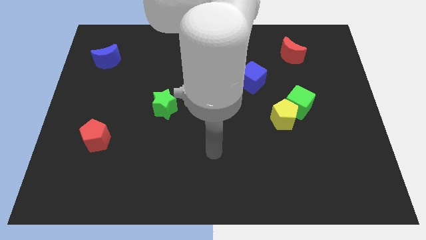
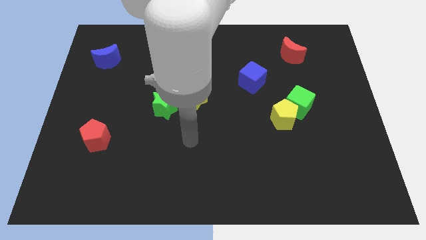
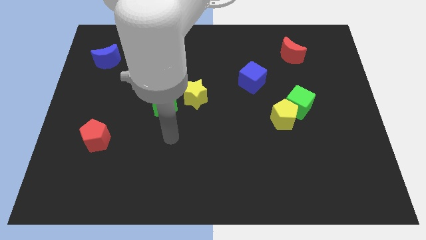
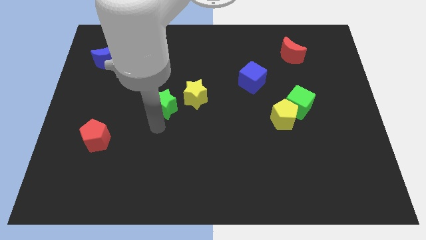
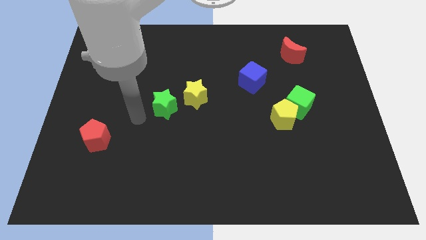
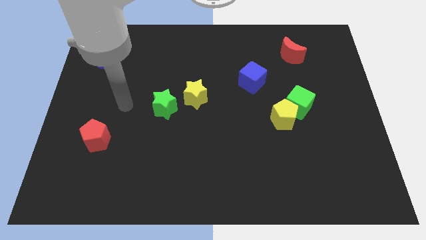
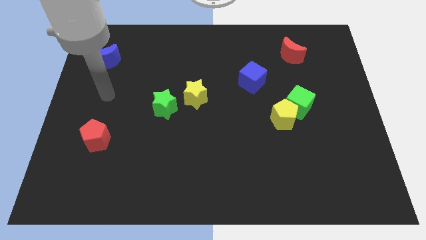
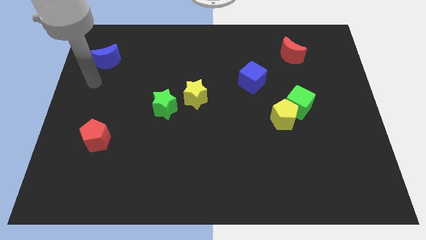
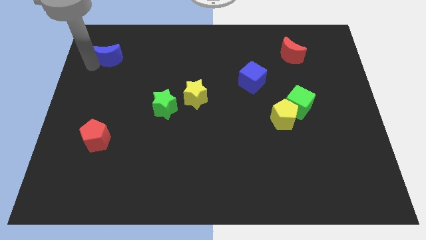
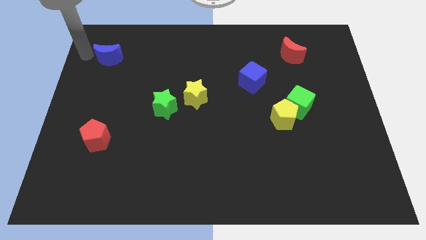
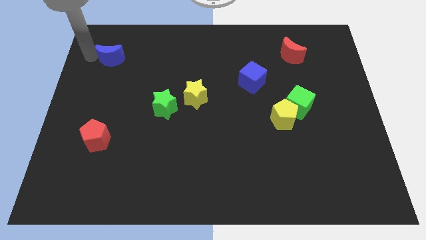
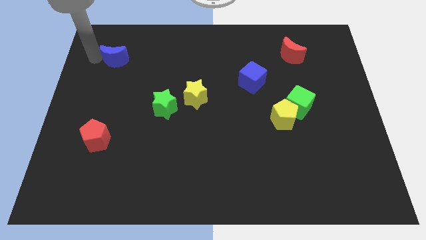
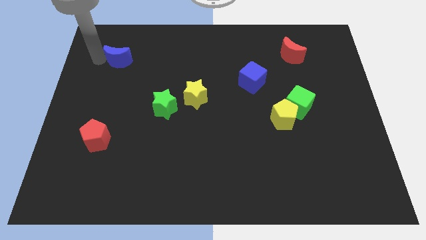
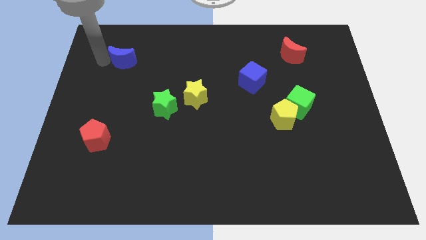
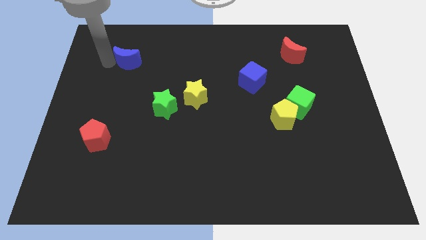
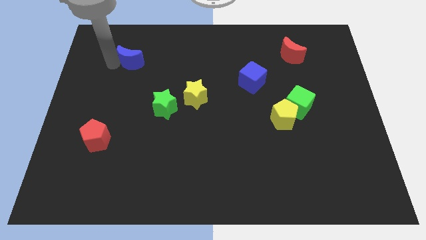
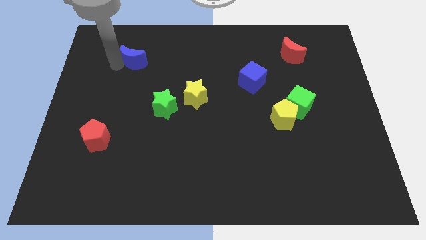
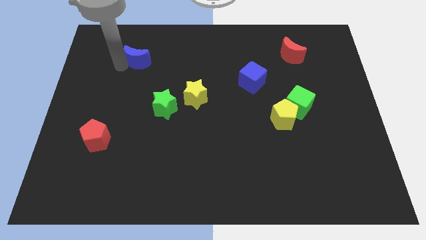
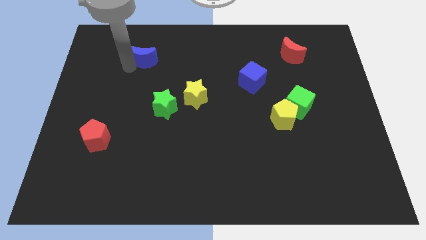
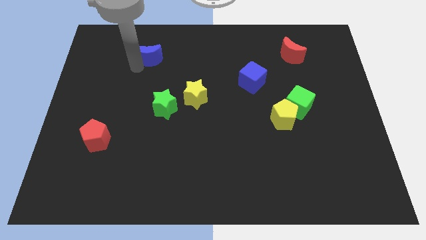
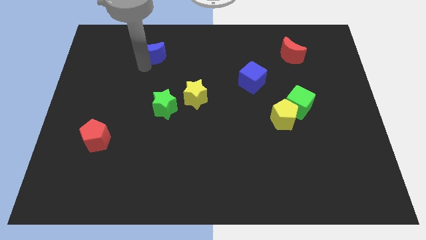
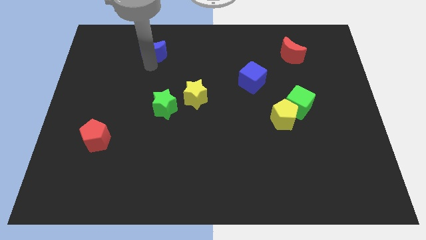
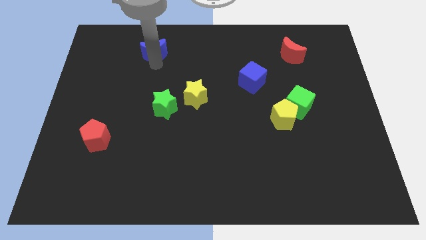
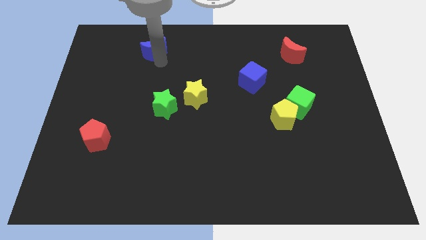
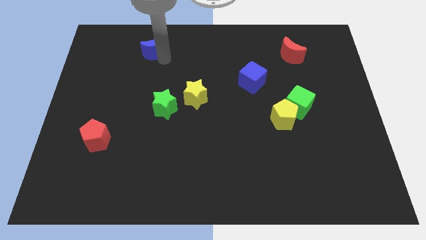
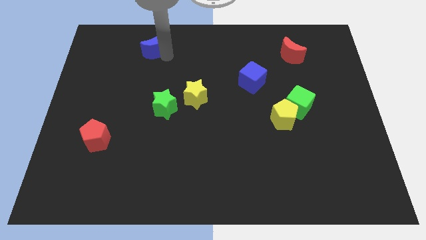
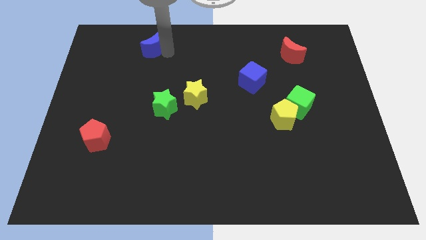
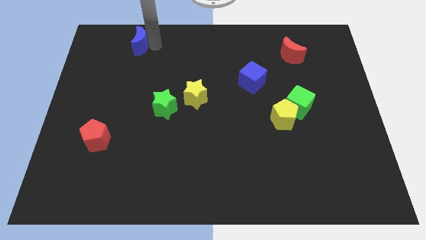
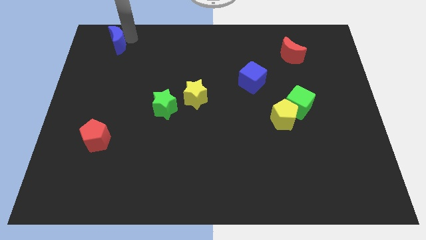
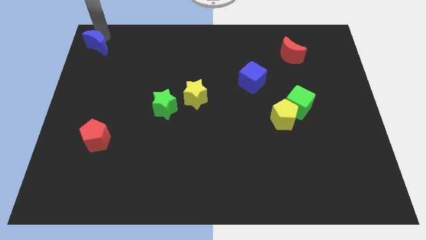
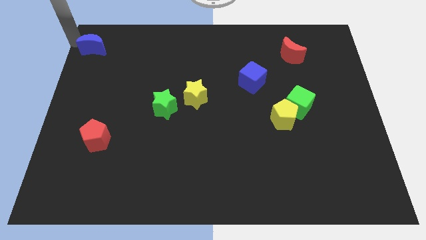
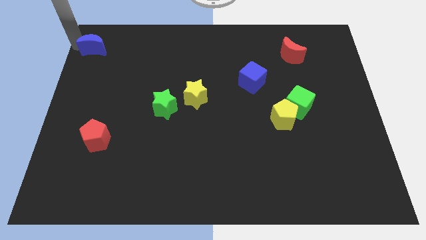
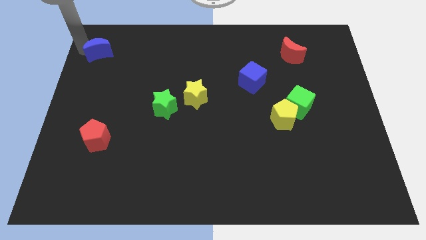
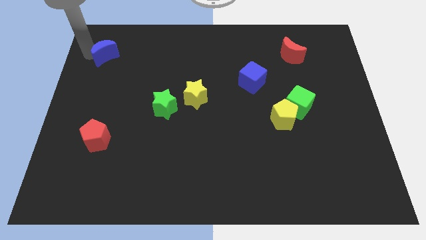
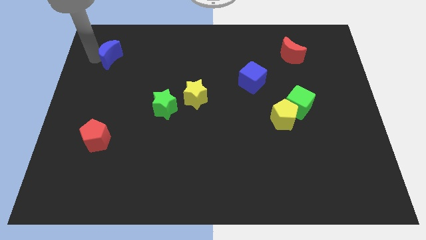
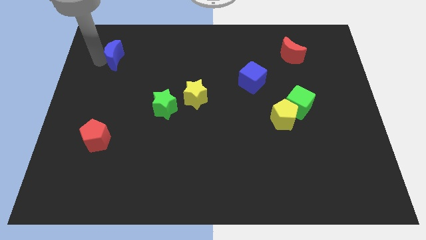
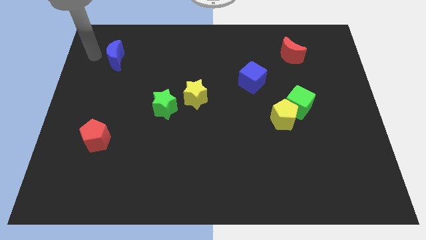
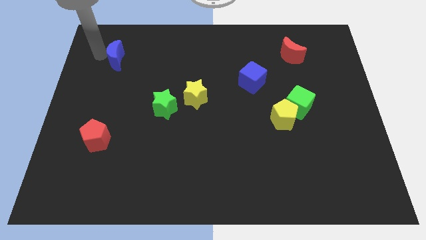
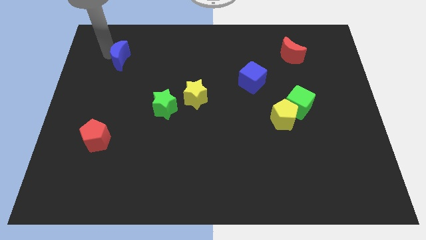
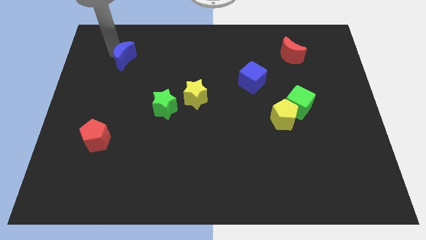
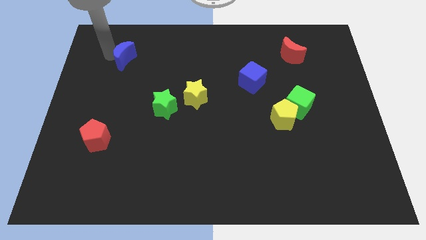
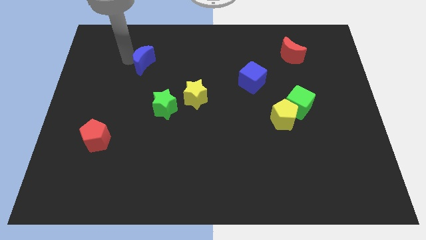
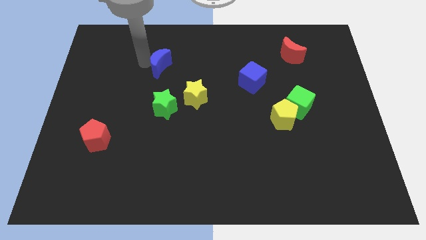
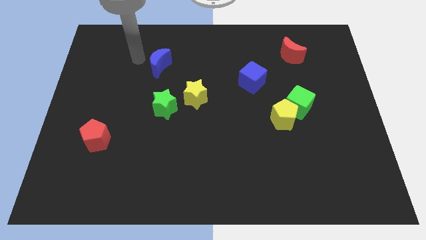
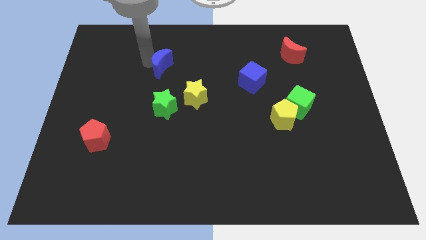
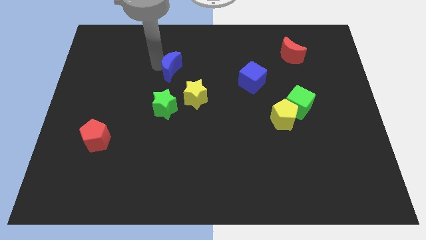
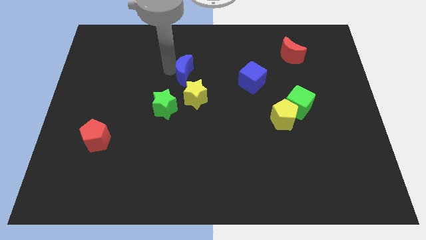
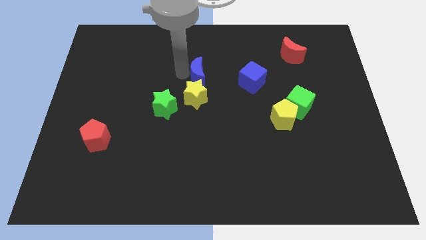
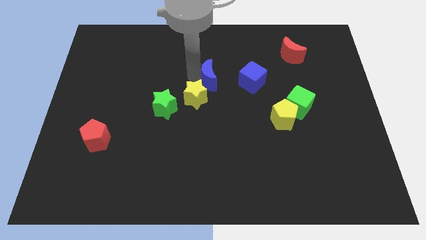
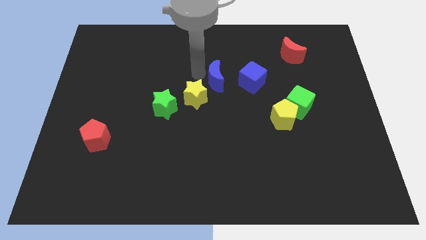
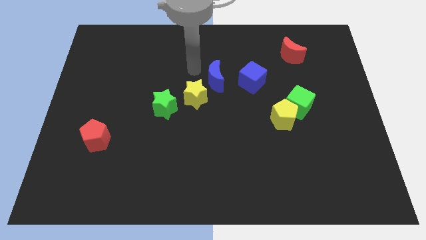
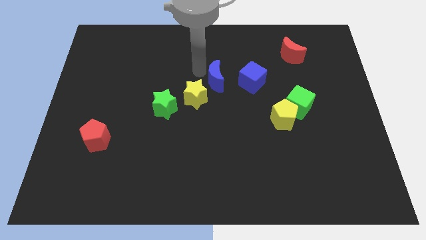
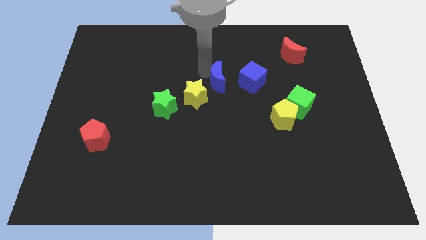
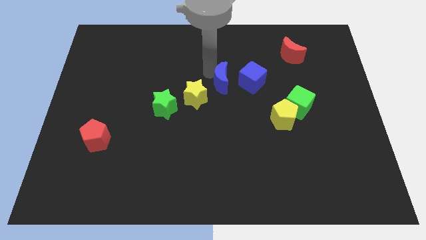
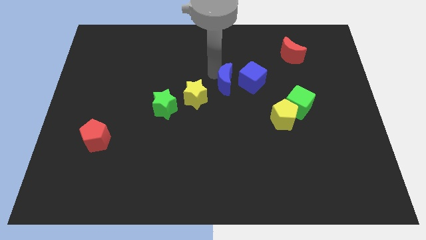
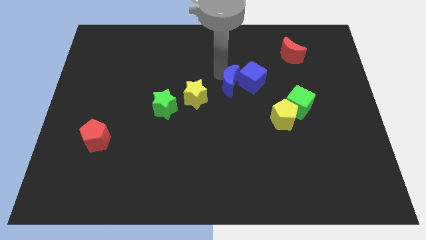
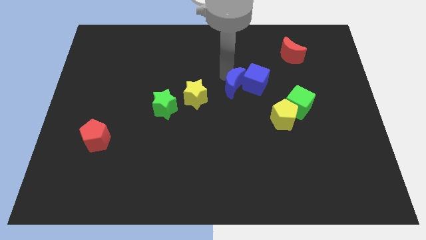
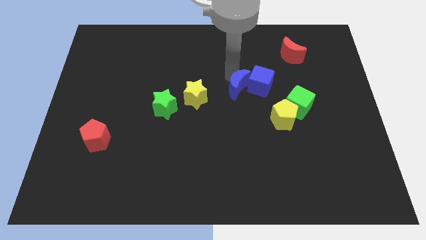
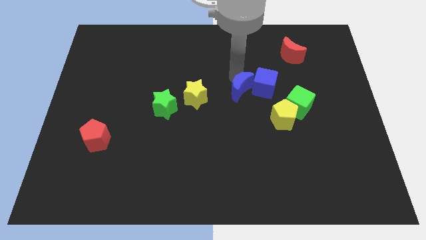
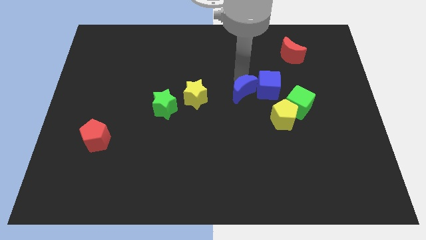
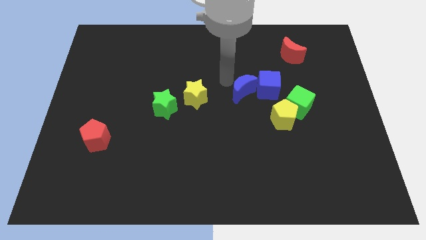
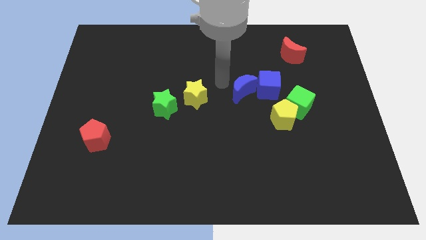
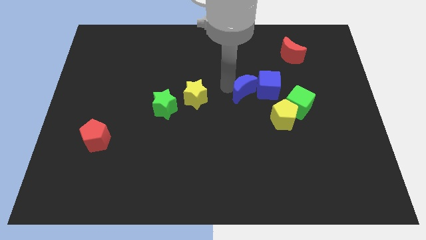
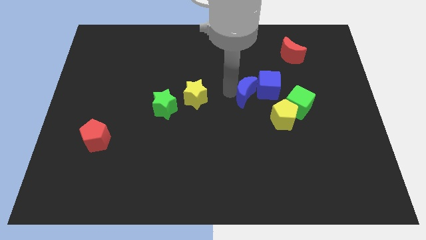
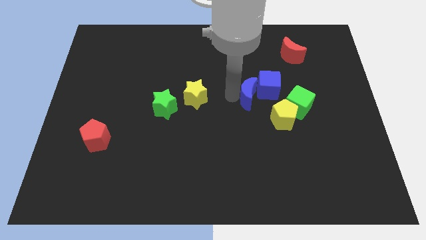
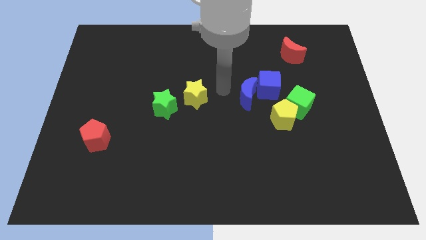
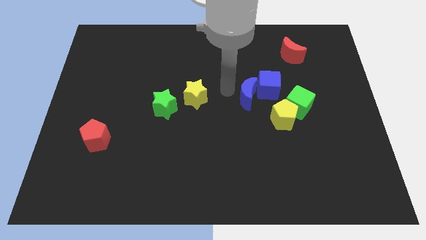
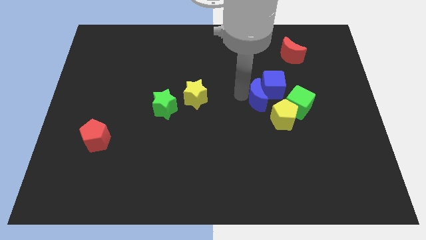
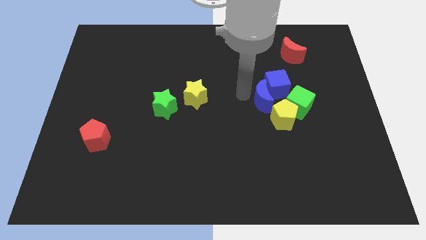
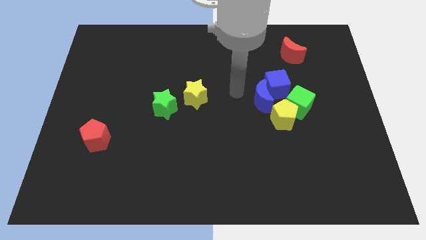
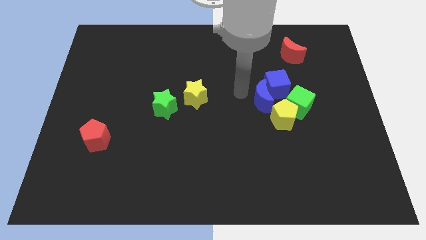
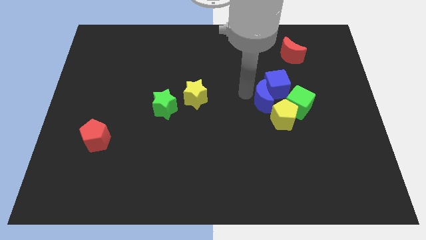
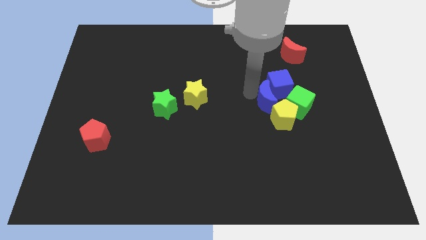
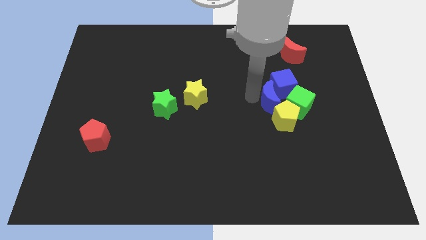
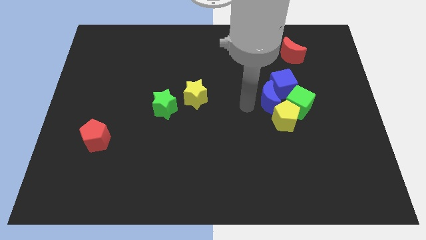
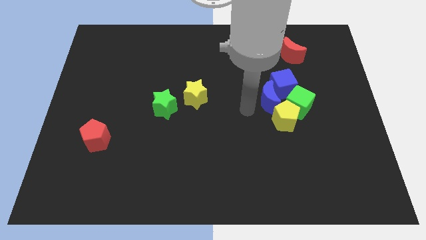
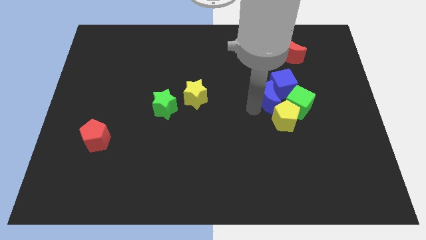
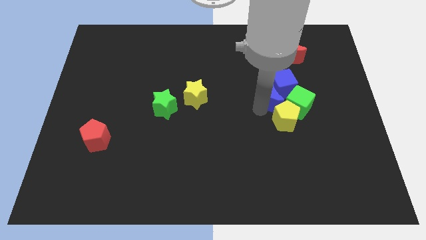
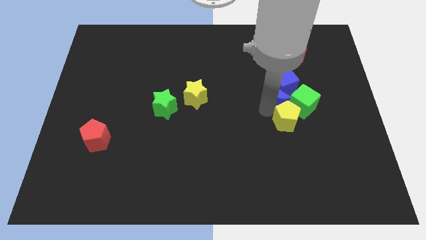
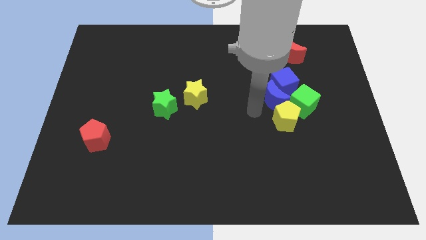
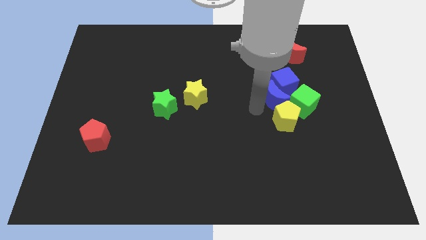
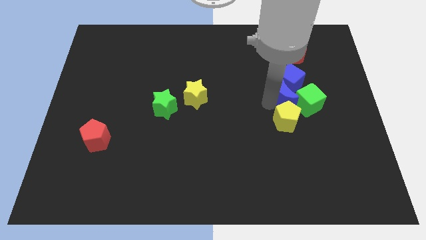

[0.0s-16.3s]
push the blue moon towards the green cube
